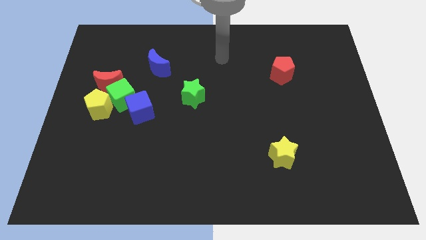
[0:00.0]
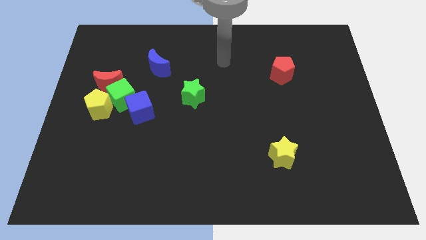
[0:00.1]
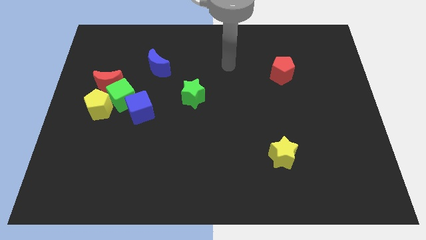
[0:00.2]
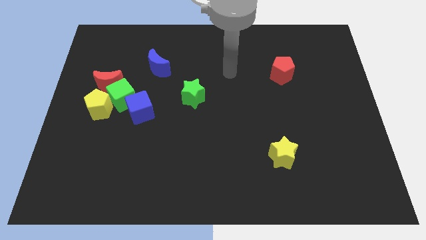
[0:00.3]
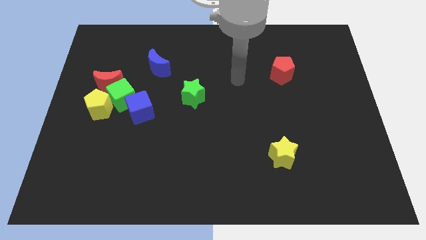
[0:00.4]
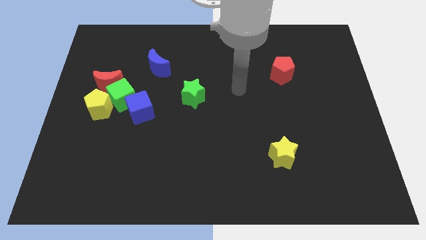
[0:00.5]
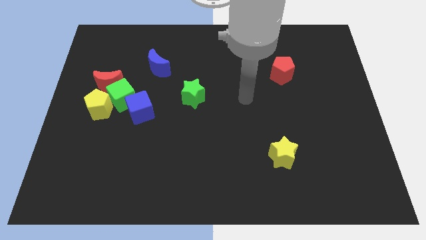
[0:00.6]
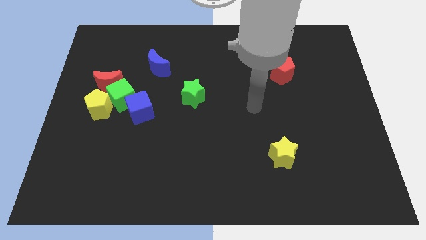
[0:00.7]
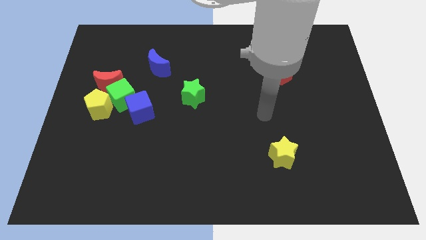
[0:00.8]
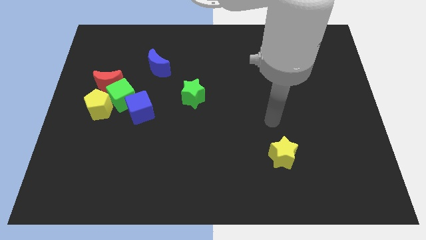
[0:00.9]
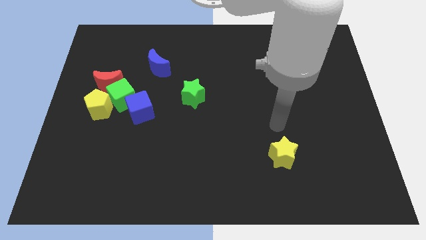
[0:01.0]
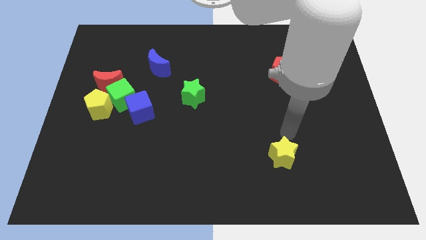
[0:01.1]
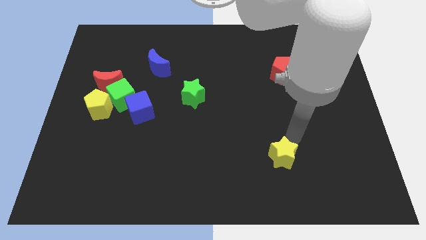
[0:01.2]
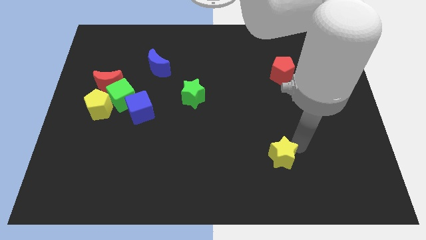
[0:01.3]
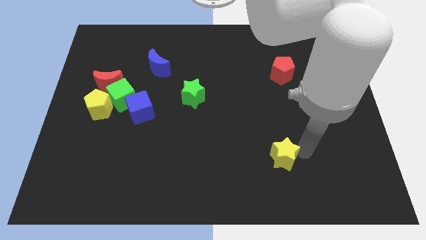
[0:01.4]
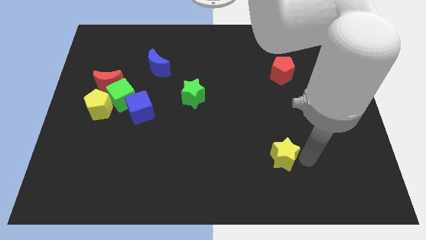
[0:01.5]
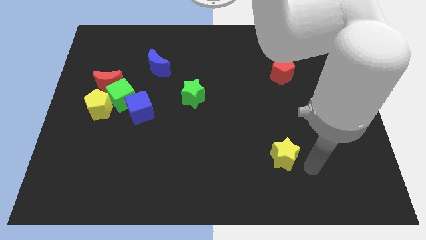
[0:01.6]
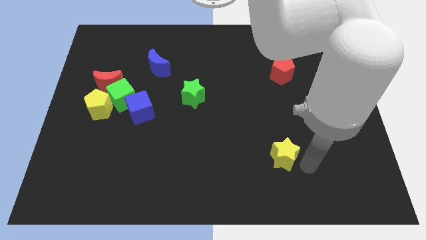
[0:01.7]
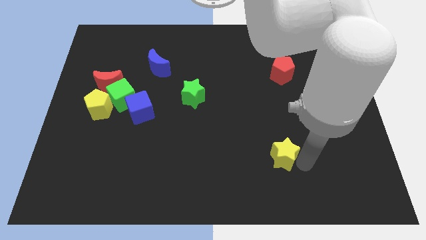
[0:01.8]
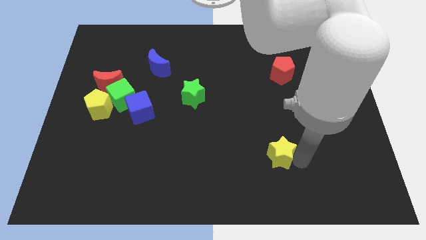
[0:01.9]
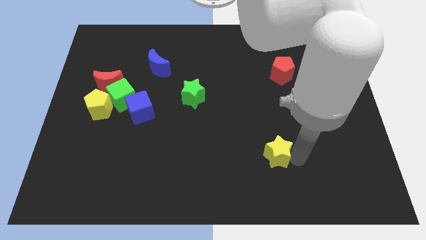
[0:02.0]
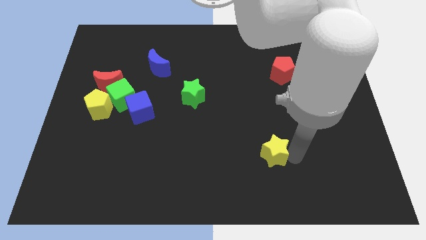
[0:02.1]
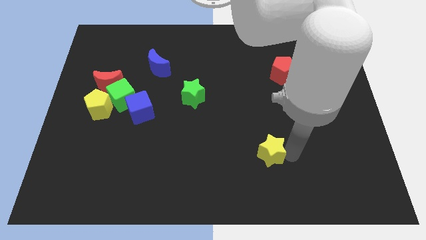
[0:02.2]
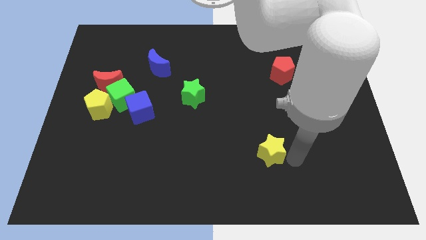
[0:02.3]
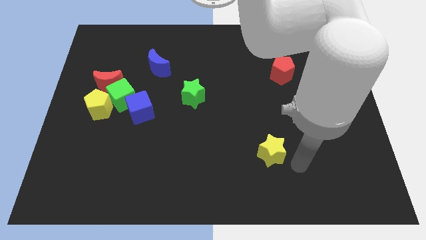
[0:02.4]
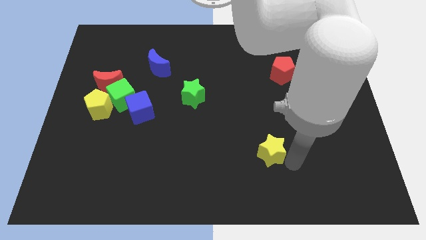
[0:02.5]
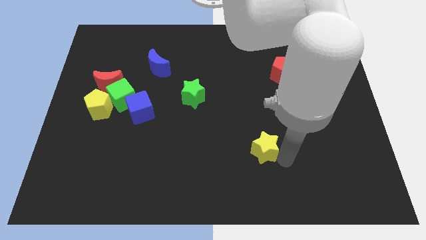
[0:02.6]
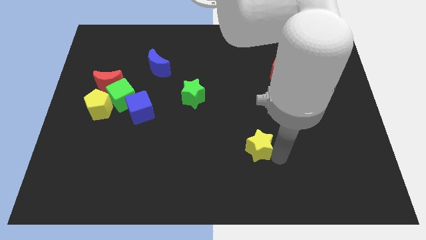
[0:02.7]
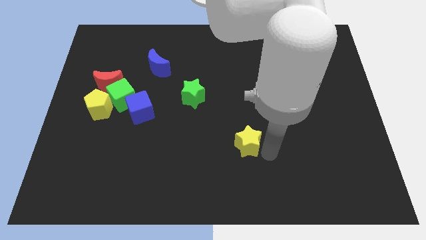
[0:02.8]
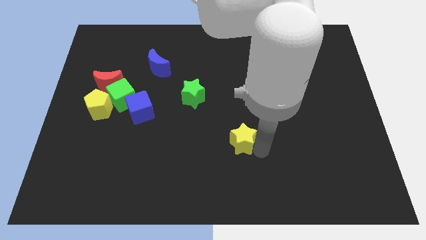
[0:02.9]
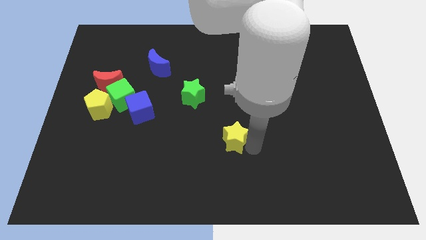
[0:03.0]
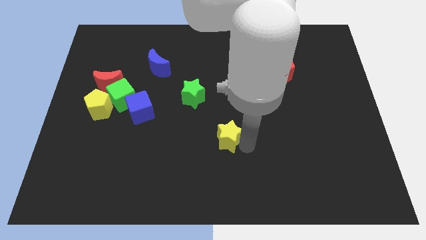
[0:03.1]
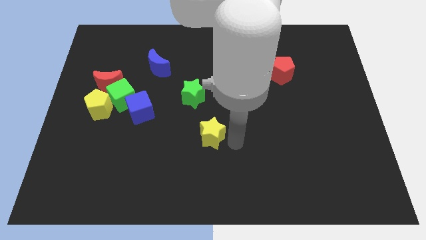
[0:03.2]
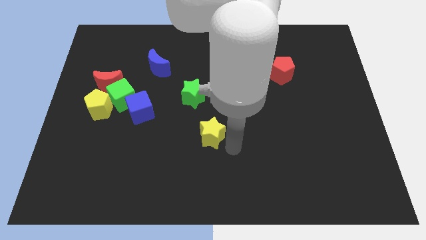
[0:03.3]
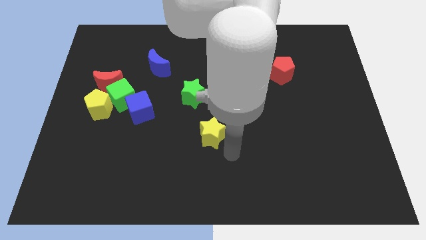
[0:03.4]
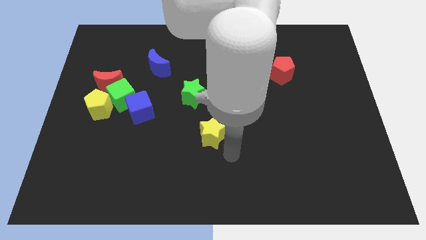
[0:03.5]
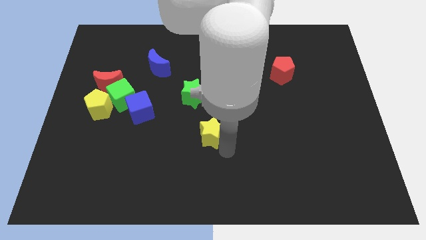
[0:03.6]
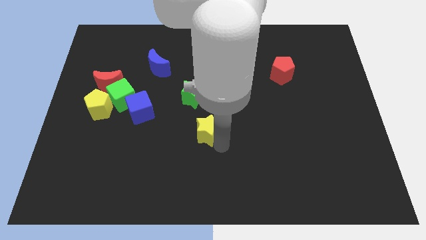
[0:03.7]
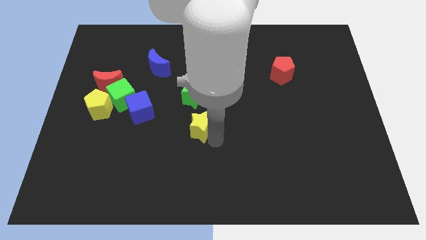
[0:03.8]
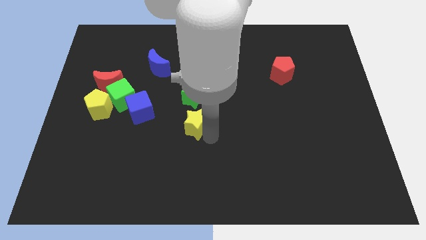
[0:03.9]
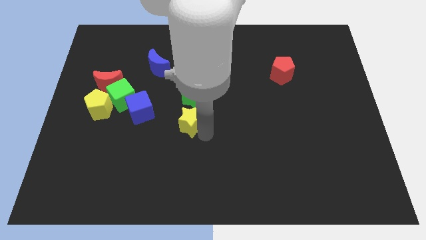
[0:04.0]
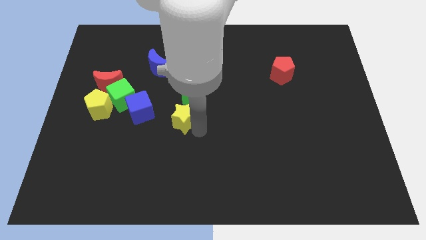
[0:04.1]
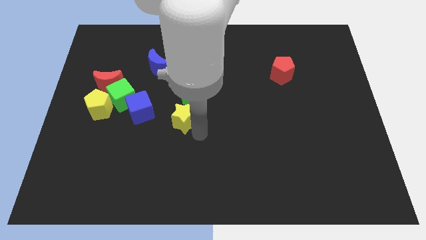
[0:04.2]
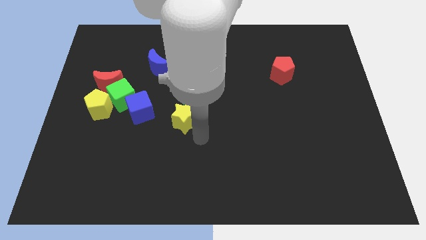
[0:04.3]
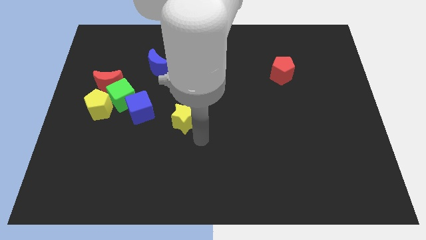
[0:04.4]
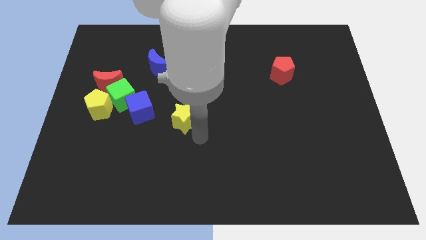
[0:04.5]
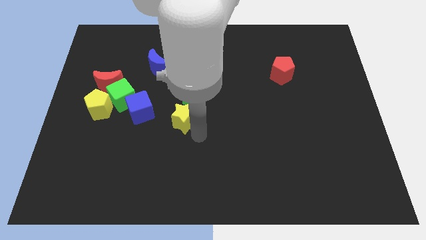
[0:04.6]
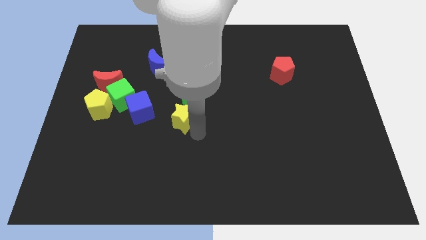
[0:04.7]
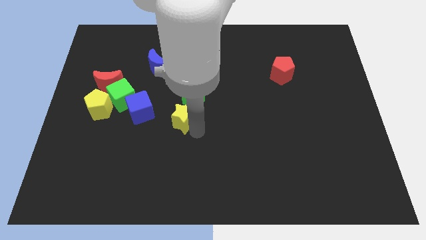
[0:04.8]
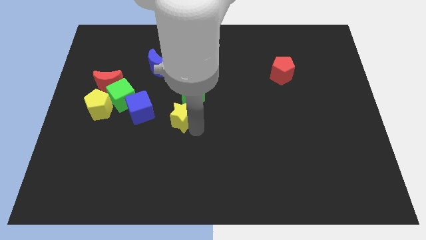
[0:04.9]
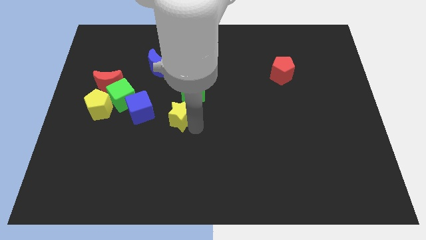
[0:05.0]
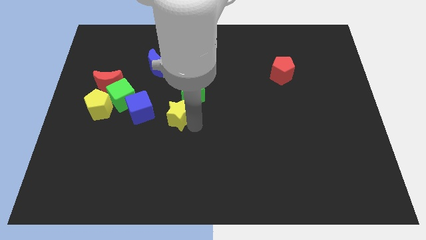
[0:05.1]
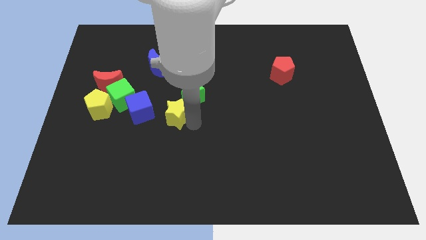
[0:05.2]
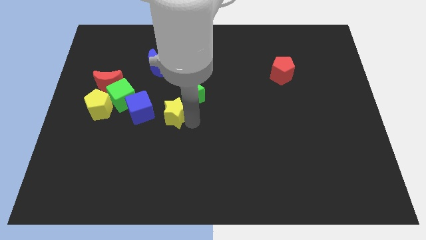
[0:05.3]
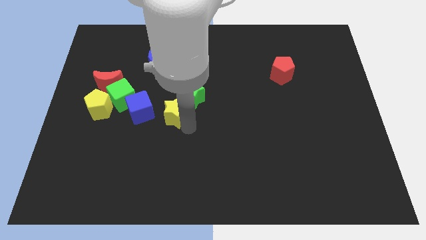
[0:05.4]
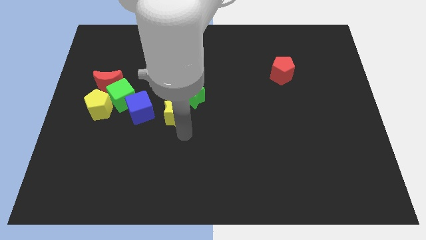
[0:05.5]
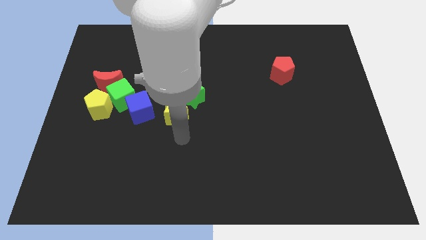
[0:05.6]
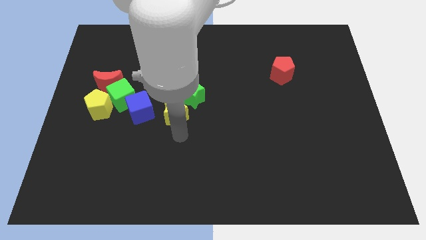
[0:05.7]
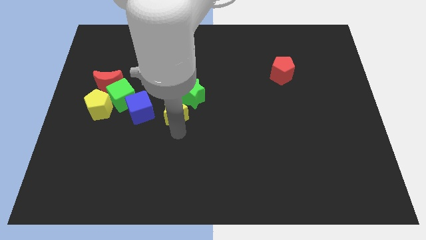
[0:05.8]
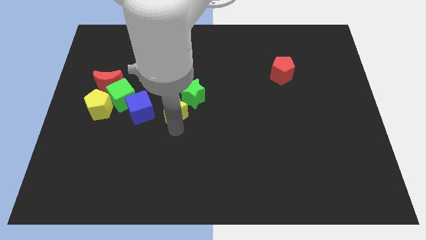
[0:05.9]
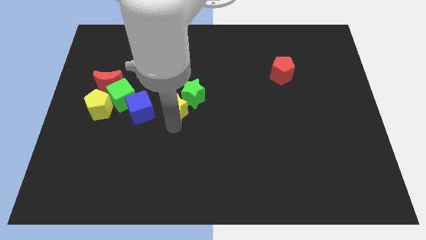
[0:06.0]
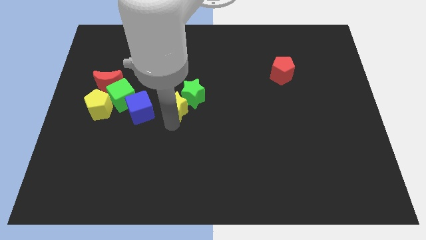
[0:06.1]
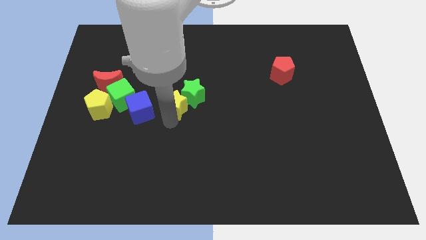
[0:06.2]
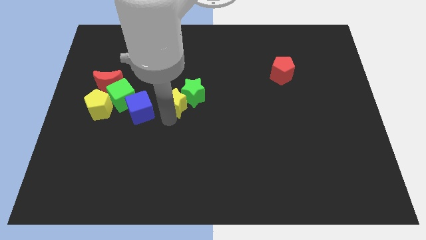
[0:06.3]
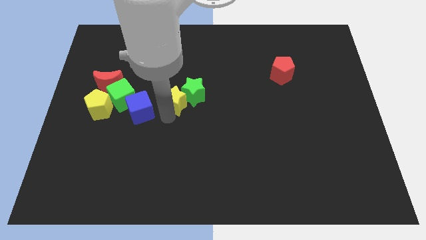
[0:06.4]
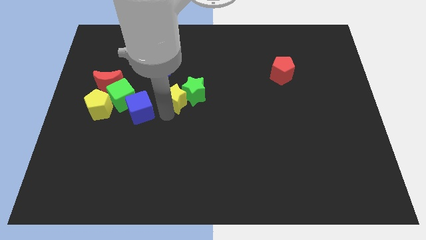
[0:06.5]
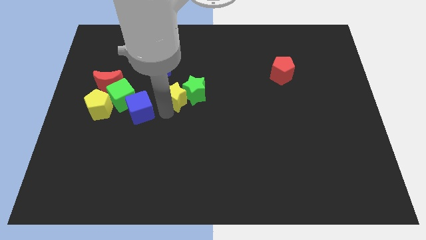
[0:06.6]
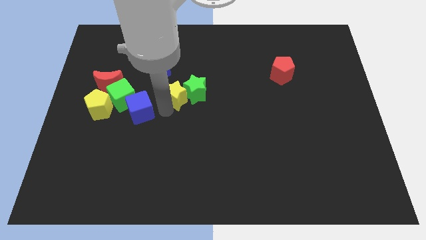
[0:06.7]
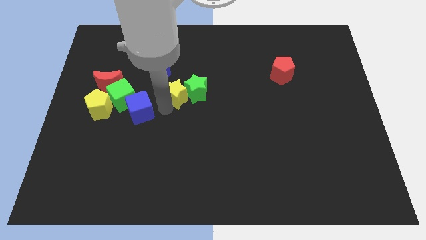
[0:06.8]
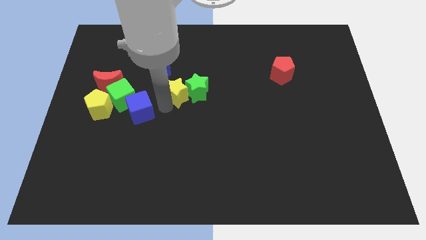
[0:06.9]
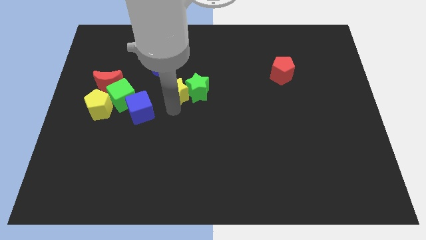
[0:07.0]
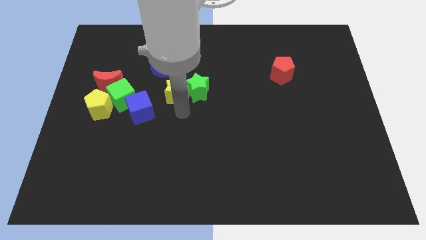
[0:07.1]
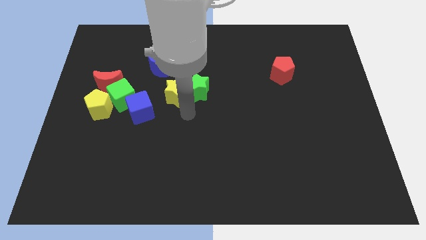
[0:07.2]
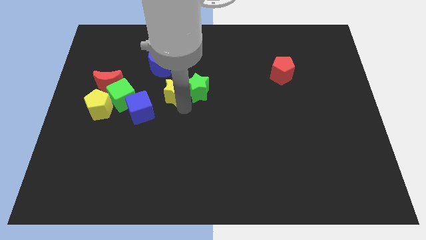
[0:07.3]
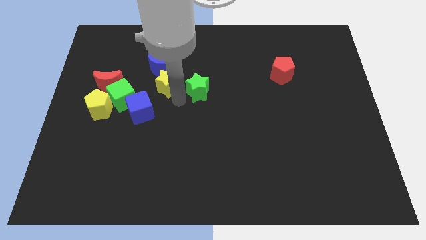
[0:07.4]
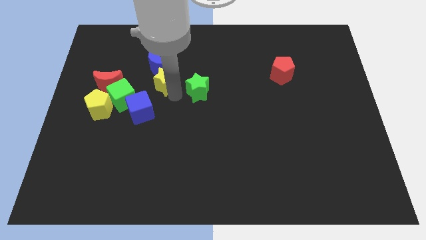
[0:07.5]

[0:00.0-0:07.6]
put the yellow star close to the blue moon
